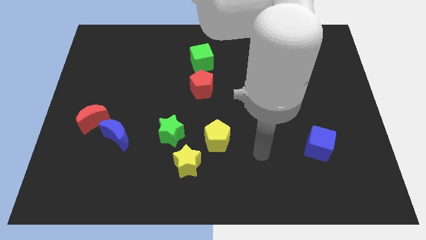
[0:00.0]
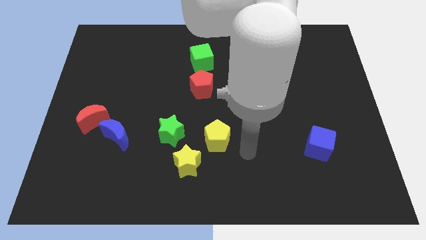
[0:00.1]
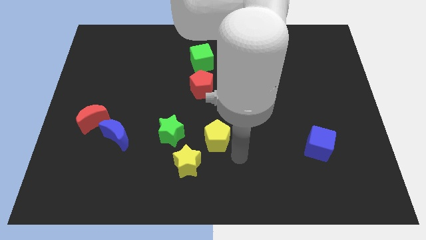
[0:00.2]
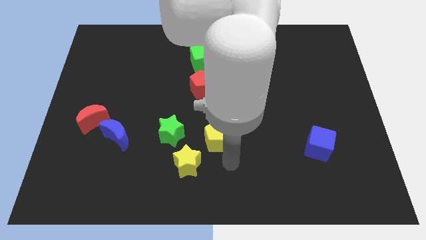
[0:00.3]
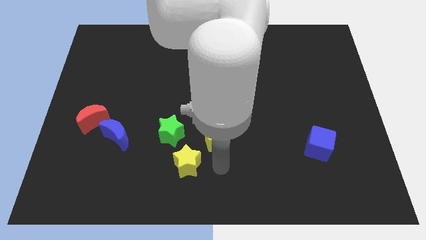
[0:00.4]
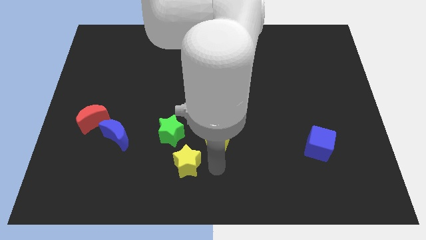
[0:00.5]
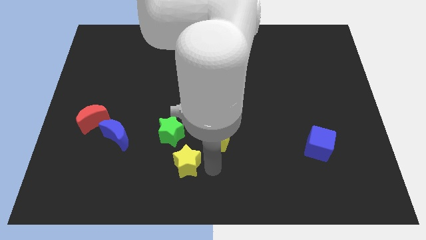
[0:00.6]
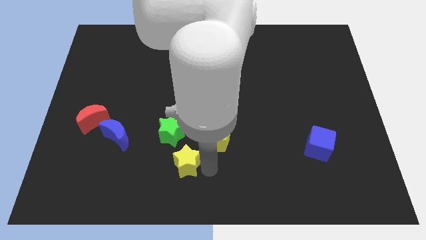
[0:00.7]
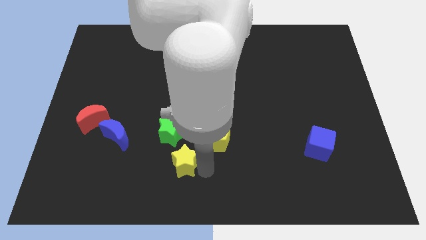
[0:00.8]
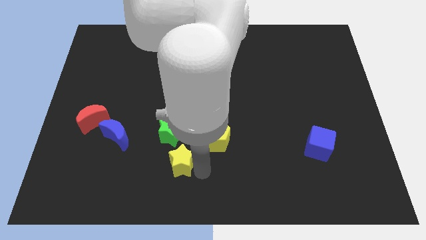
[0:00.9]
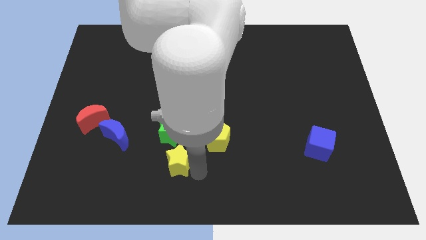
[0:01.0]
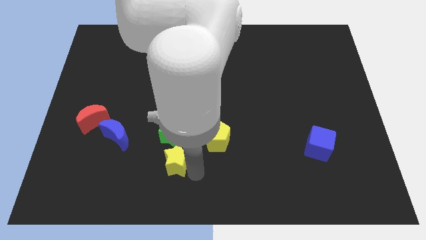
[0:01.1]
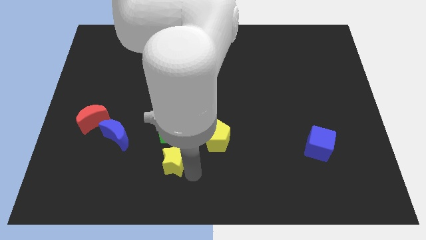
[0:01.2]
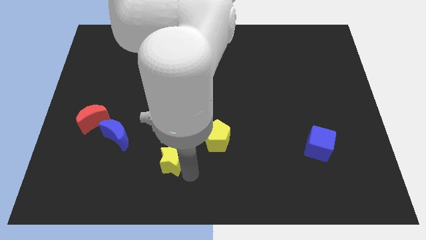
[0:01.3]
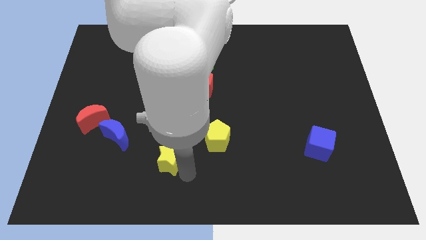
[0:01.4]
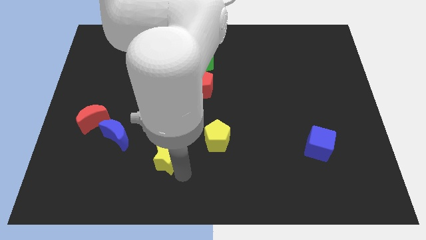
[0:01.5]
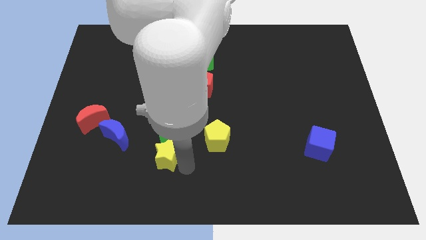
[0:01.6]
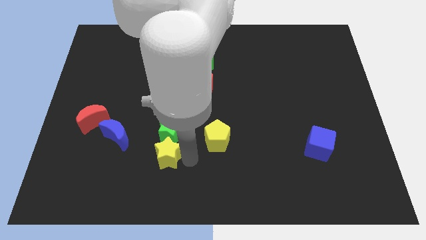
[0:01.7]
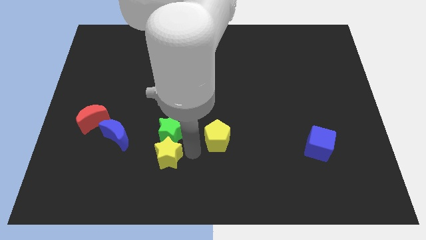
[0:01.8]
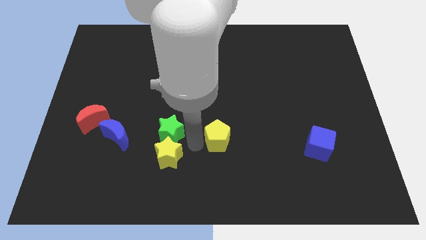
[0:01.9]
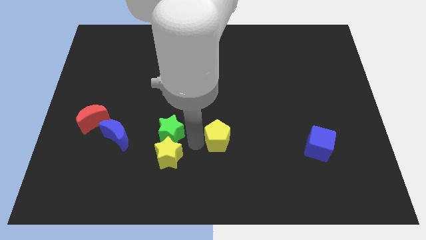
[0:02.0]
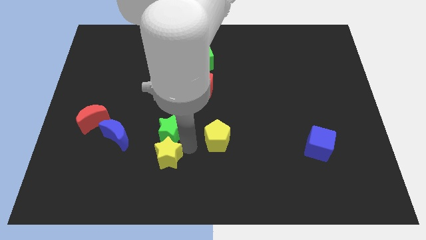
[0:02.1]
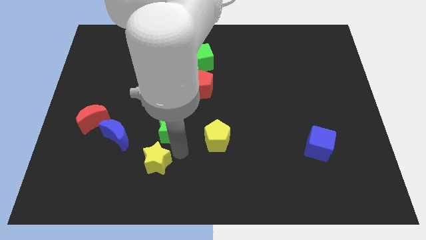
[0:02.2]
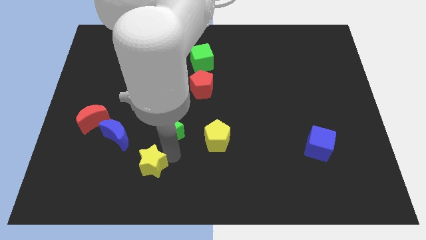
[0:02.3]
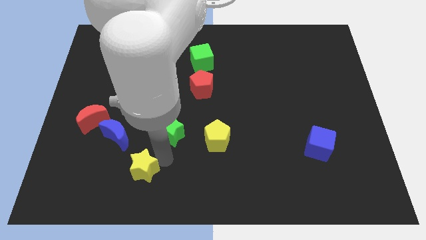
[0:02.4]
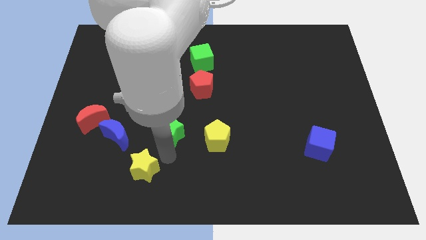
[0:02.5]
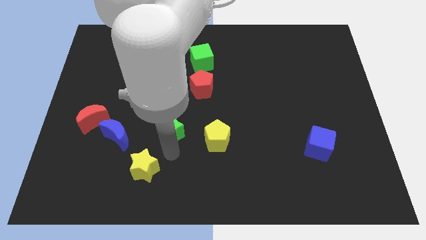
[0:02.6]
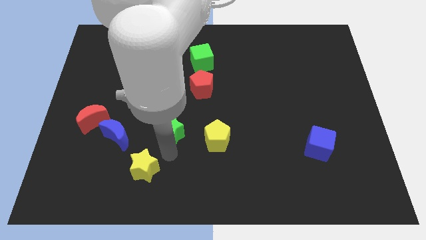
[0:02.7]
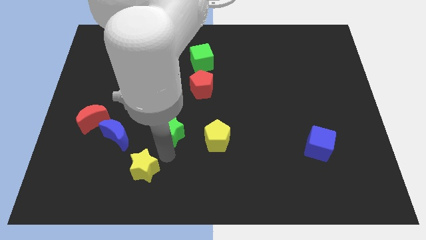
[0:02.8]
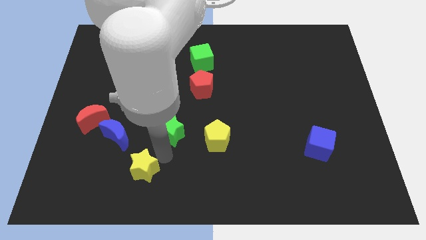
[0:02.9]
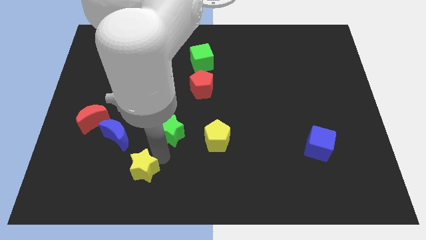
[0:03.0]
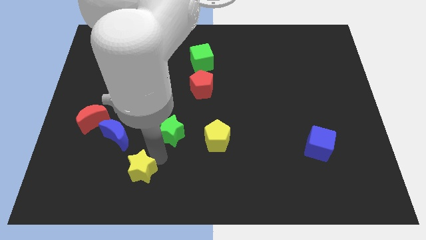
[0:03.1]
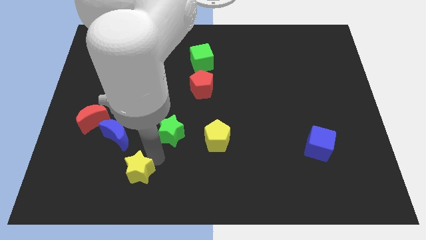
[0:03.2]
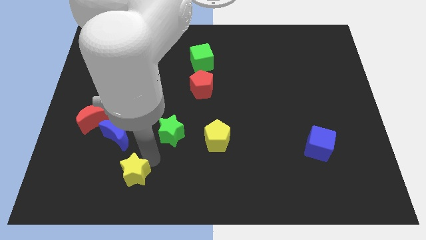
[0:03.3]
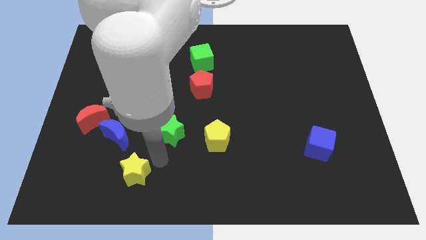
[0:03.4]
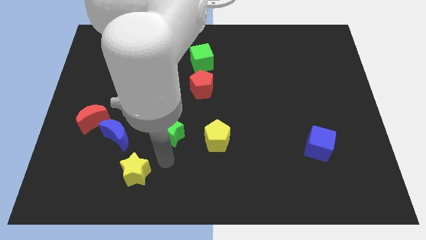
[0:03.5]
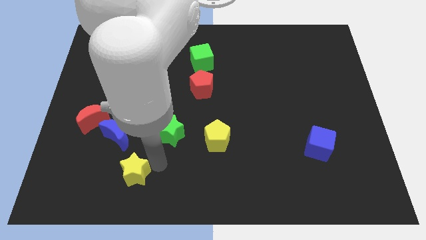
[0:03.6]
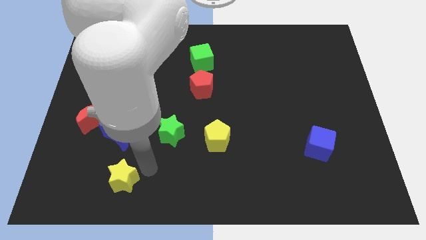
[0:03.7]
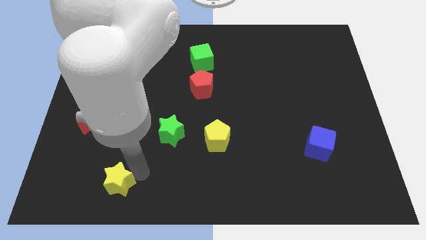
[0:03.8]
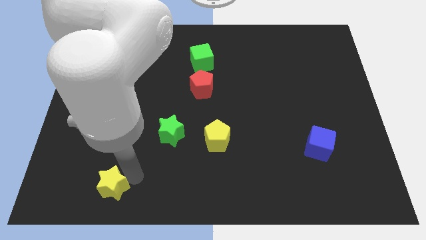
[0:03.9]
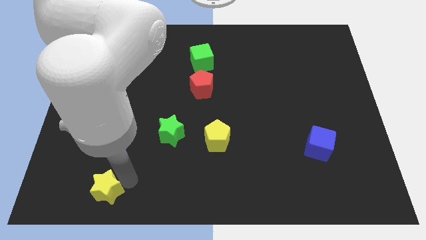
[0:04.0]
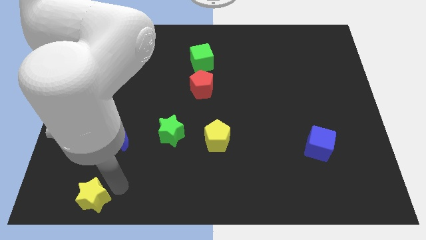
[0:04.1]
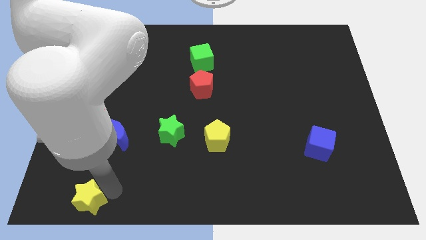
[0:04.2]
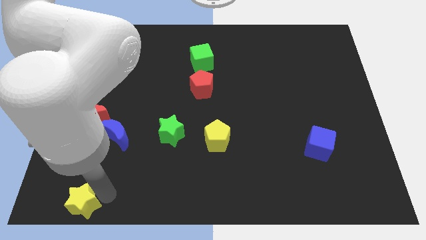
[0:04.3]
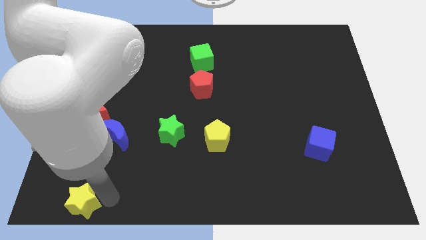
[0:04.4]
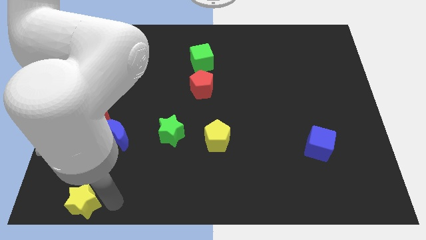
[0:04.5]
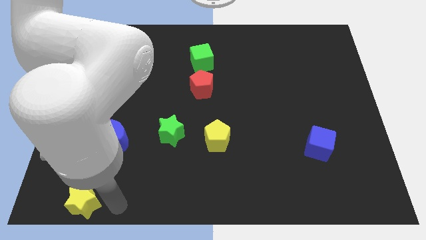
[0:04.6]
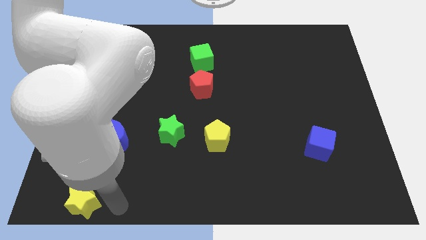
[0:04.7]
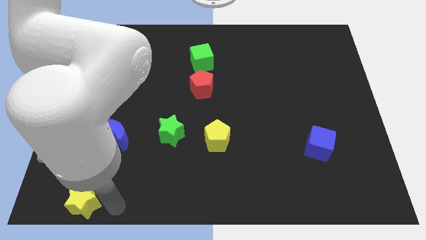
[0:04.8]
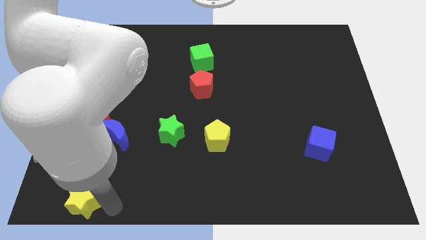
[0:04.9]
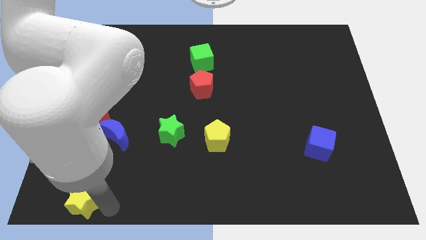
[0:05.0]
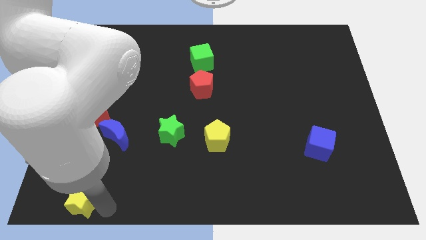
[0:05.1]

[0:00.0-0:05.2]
push the yellow star to the bottom left corner

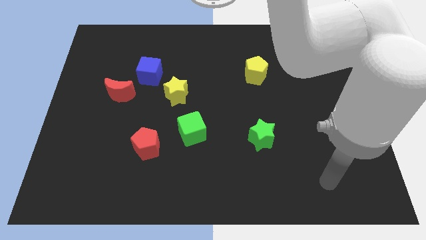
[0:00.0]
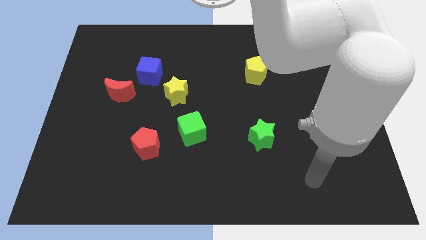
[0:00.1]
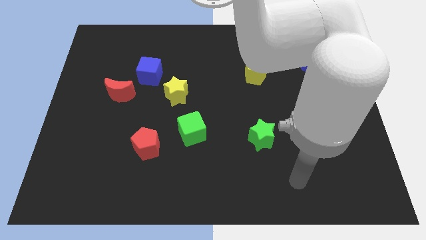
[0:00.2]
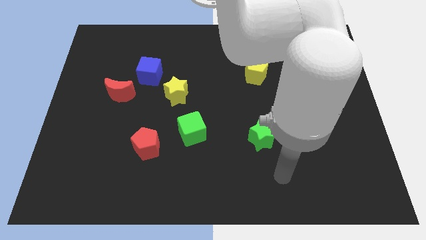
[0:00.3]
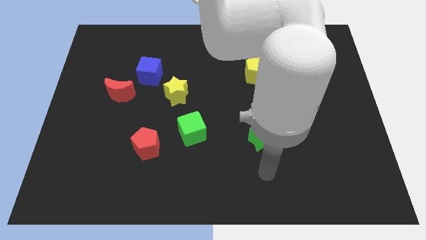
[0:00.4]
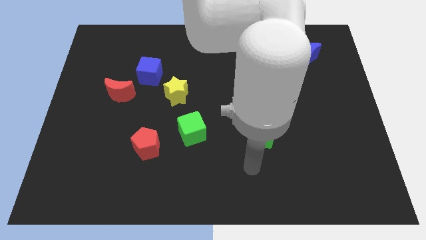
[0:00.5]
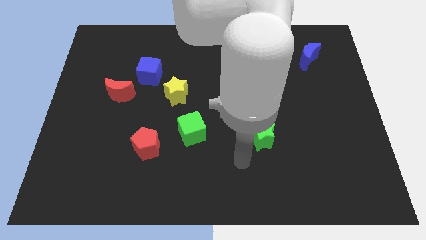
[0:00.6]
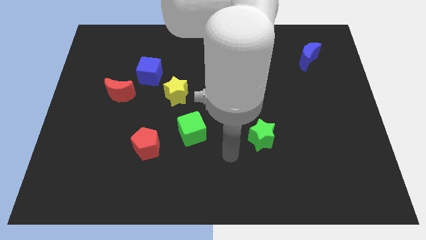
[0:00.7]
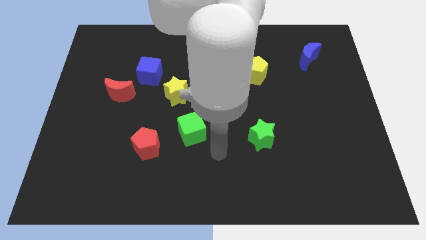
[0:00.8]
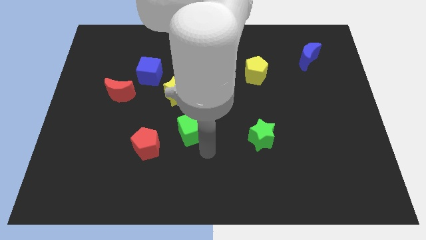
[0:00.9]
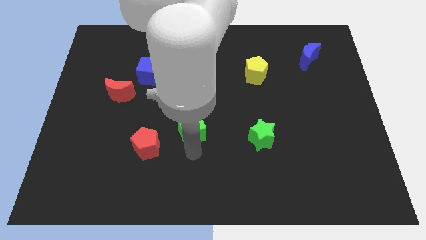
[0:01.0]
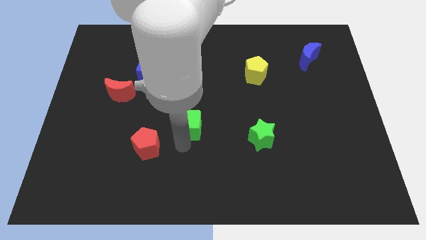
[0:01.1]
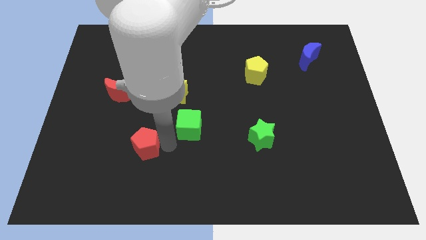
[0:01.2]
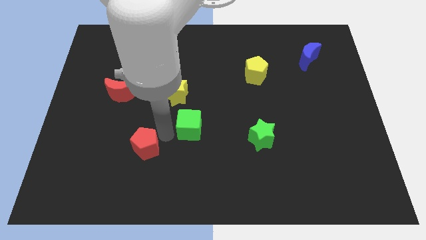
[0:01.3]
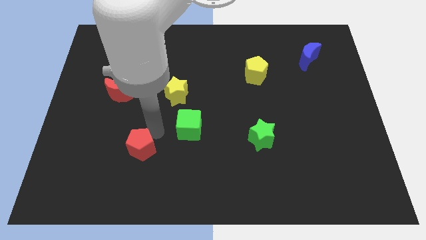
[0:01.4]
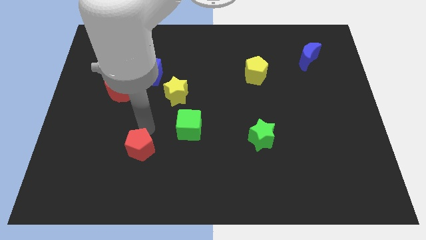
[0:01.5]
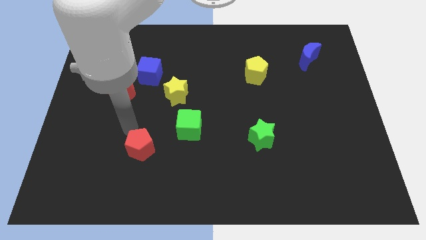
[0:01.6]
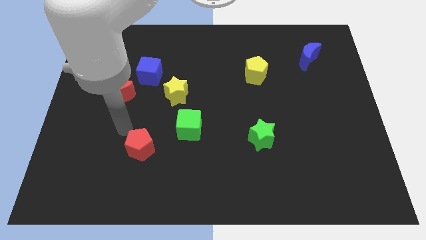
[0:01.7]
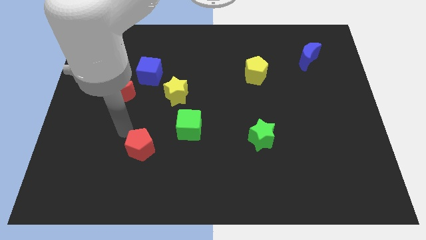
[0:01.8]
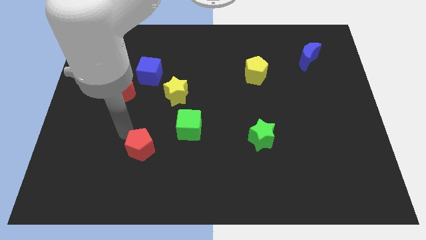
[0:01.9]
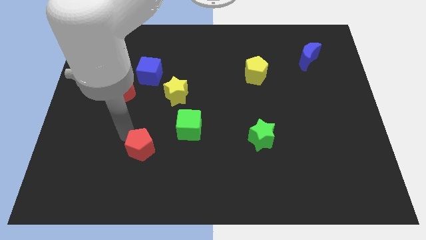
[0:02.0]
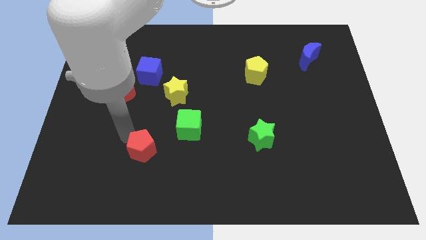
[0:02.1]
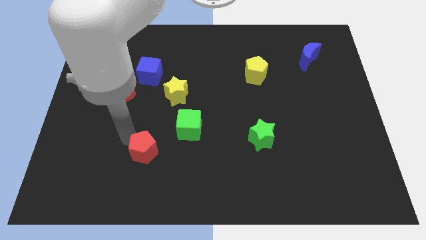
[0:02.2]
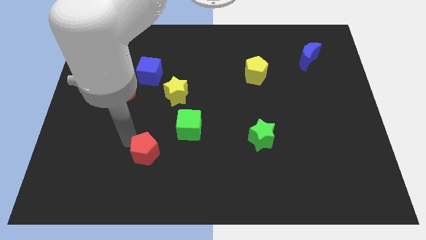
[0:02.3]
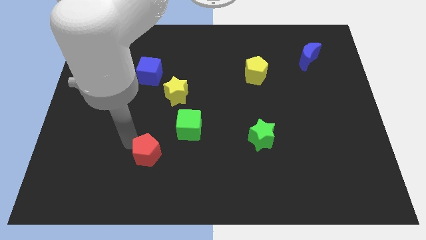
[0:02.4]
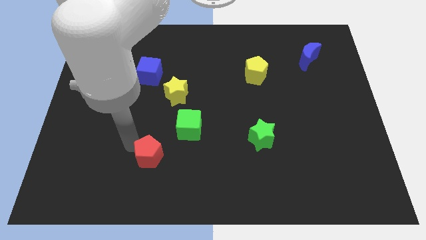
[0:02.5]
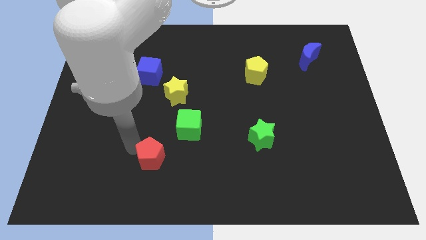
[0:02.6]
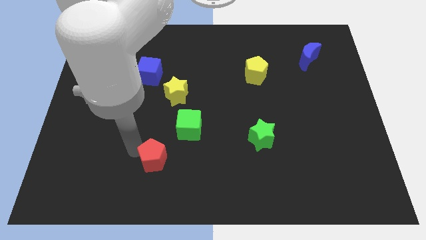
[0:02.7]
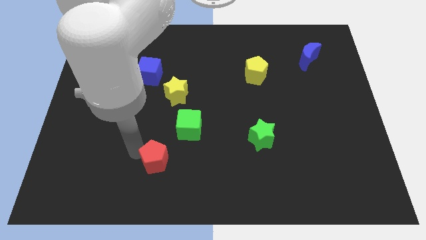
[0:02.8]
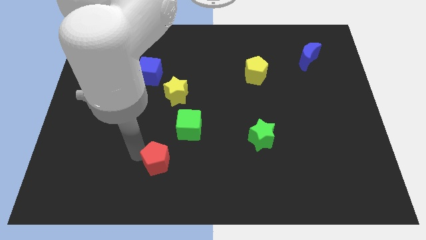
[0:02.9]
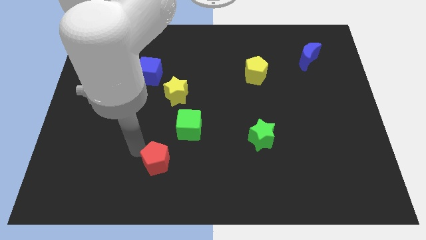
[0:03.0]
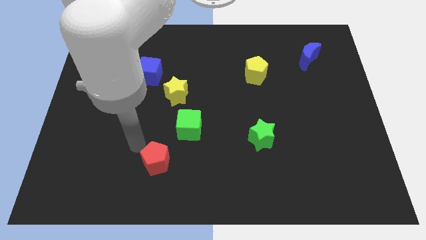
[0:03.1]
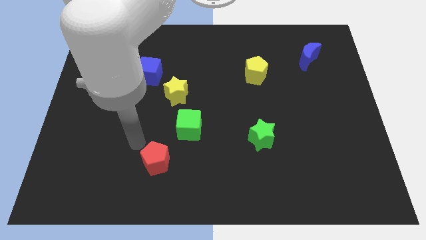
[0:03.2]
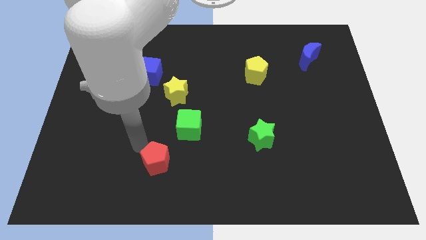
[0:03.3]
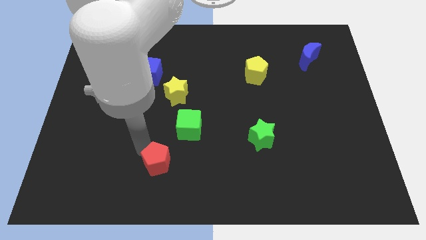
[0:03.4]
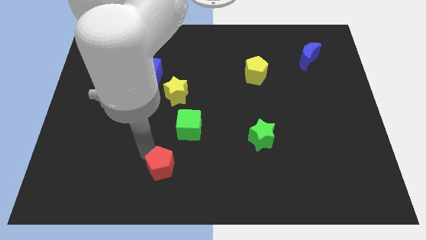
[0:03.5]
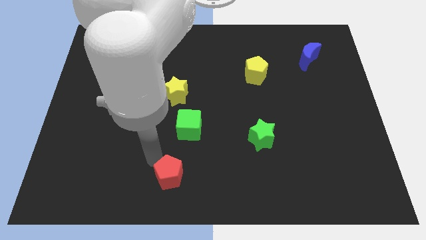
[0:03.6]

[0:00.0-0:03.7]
push the red pentagon to the bottom side
